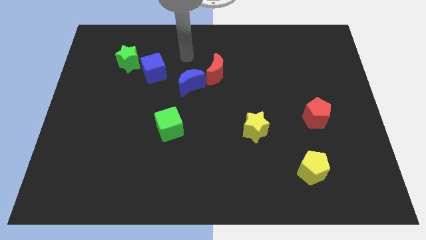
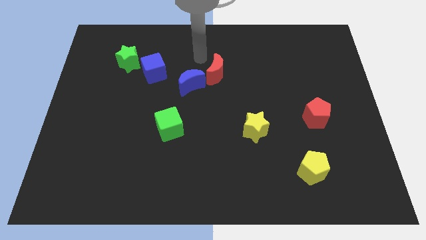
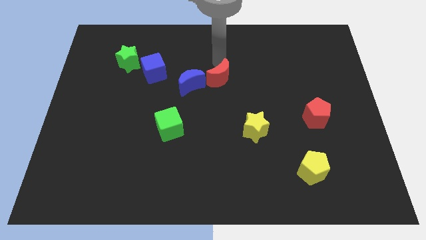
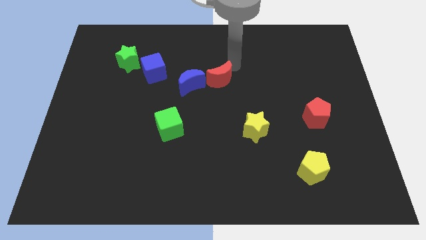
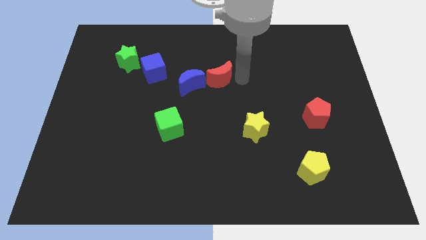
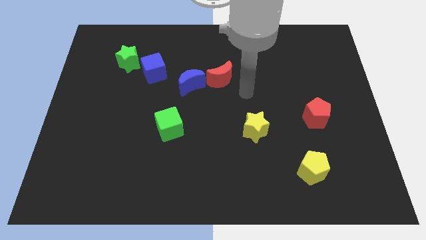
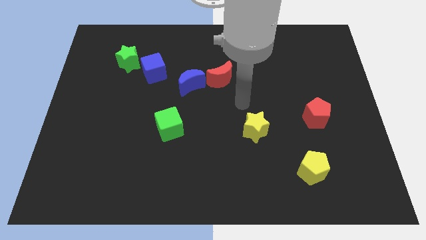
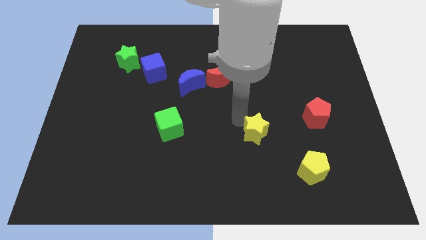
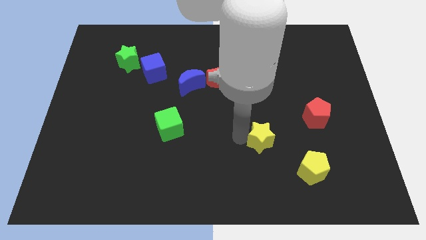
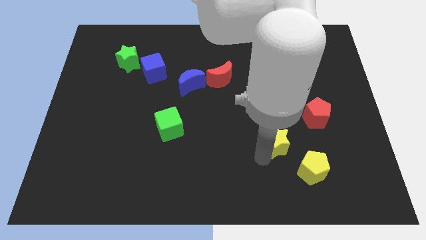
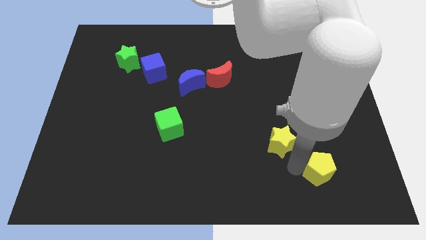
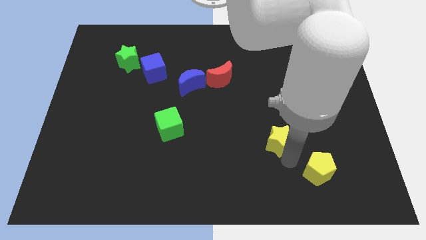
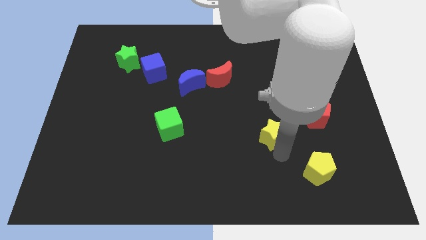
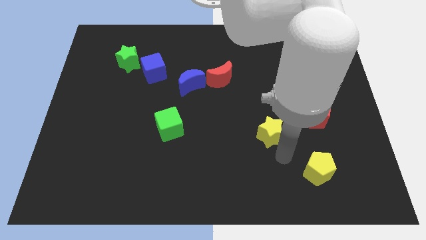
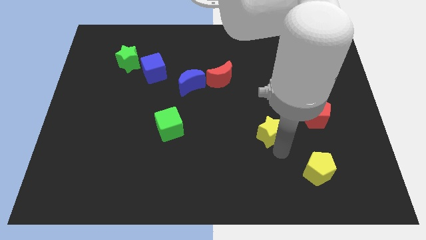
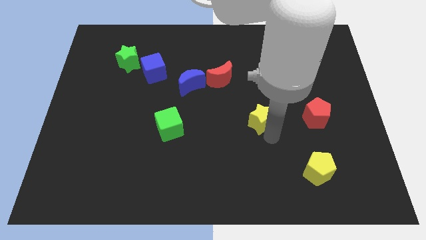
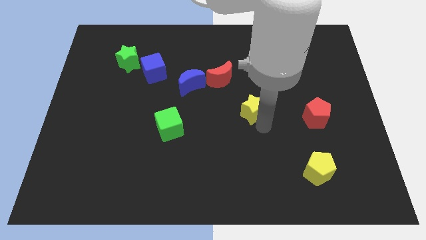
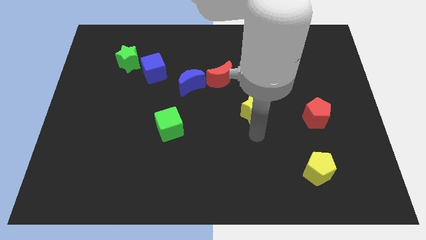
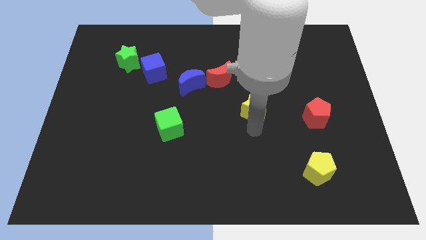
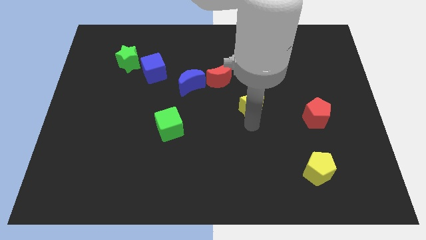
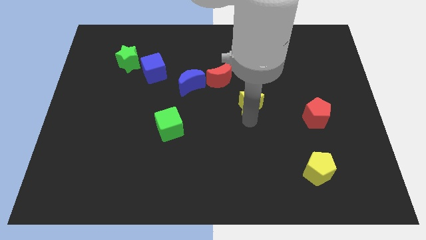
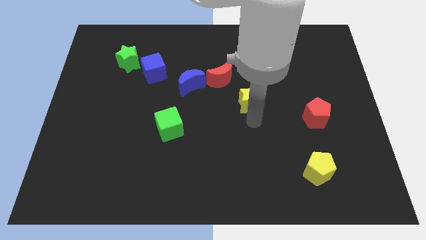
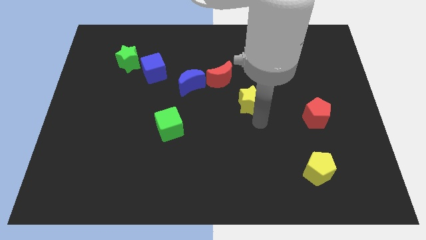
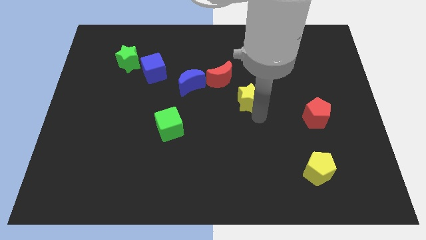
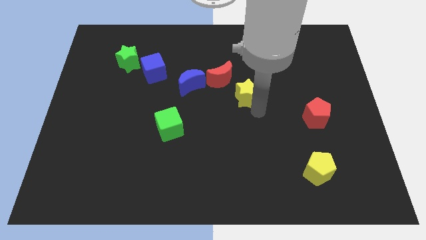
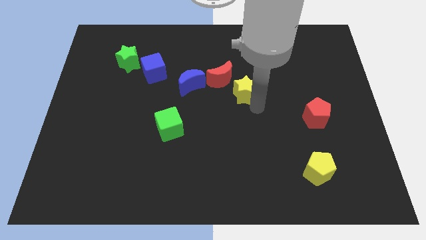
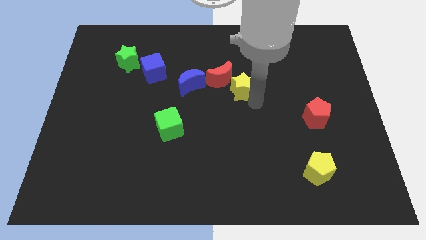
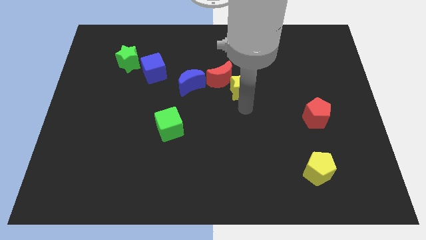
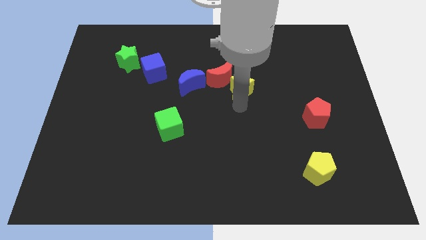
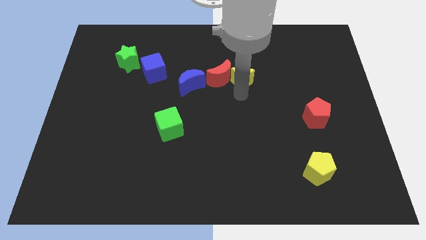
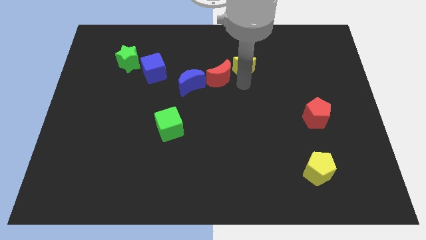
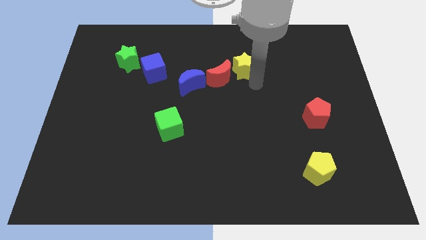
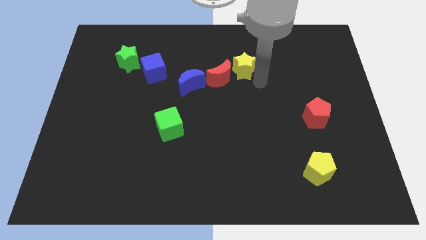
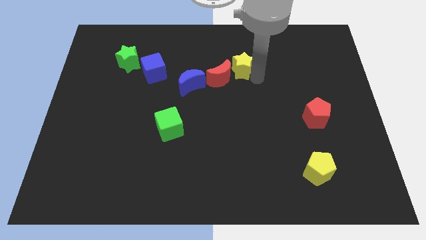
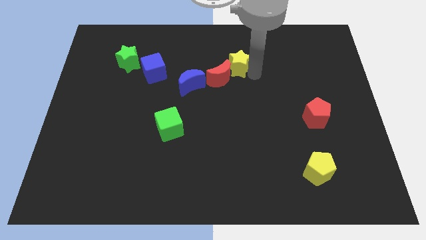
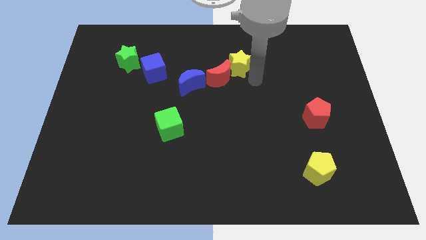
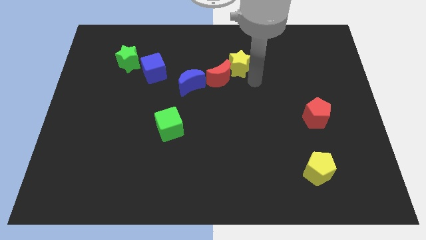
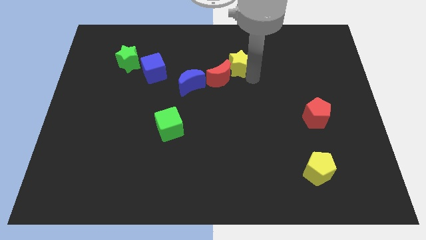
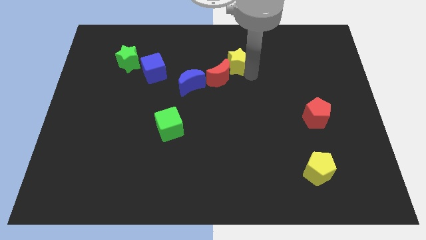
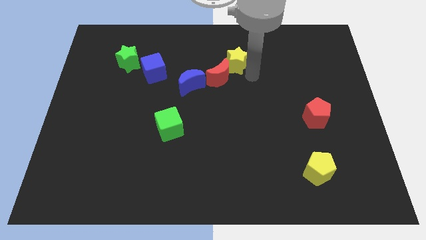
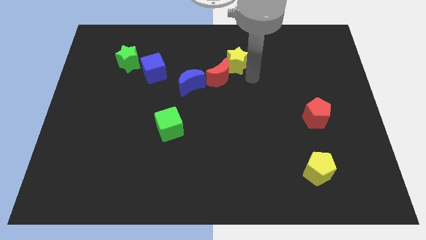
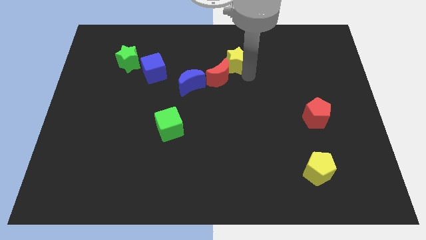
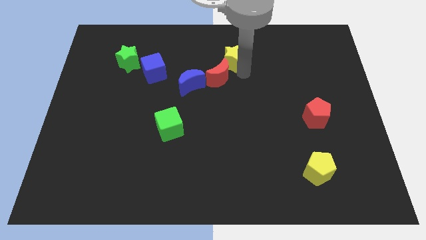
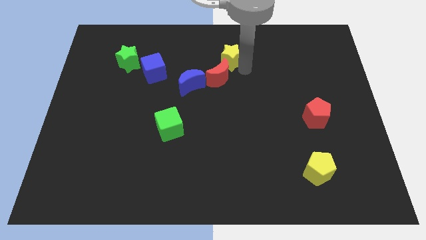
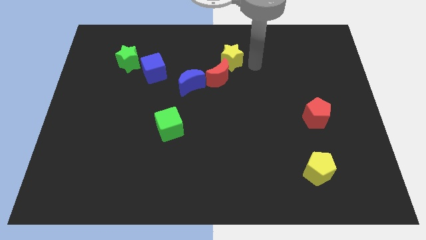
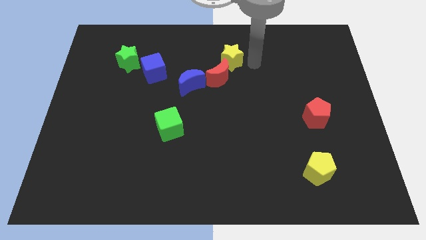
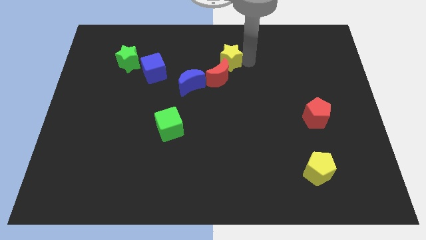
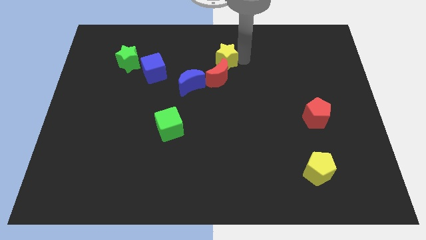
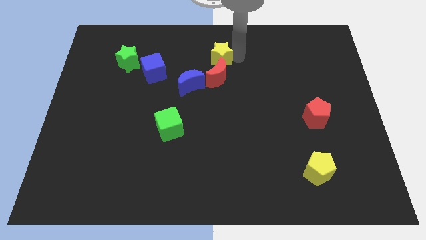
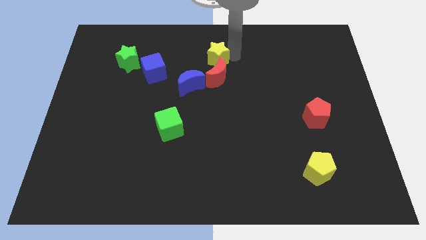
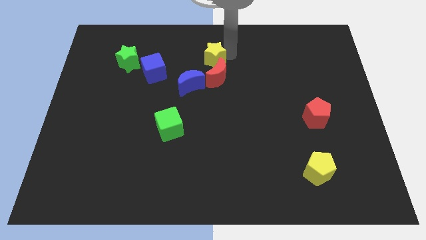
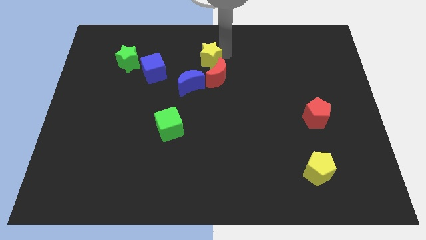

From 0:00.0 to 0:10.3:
slide the yellow star upwards and to the left diagonally

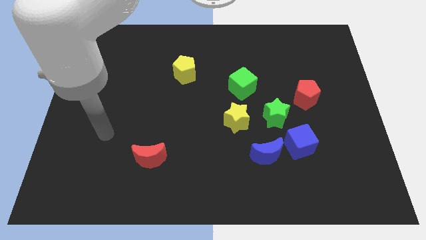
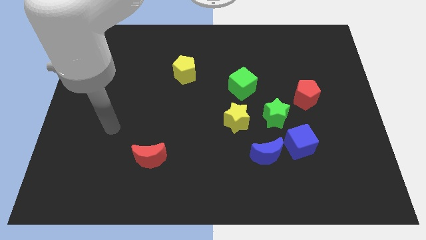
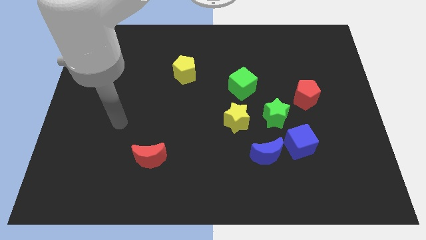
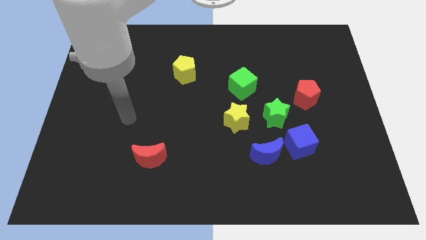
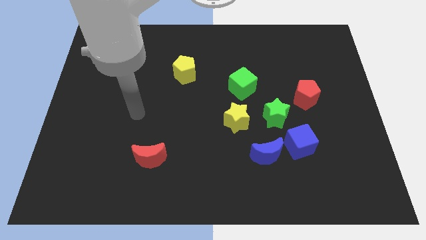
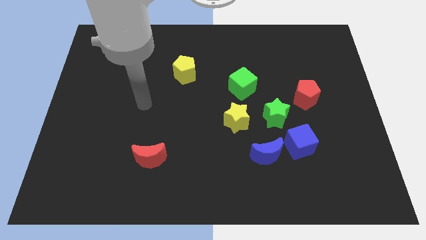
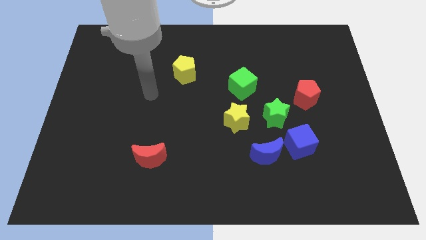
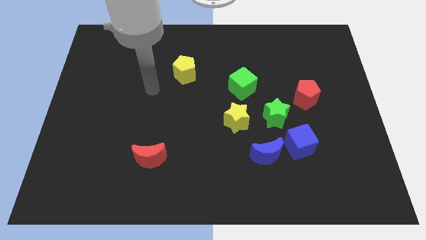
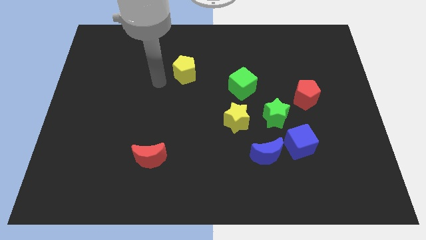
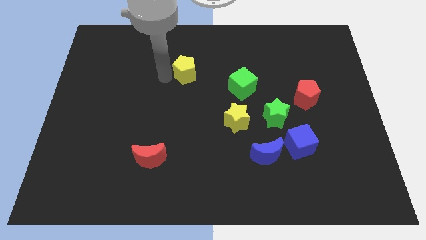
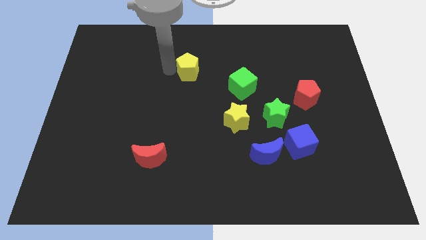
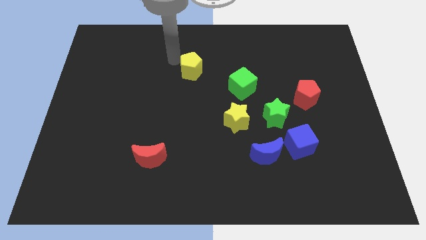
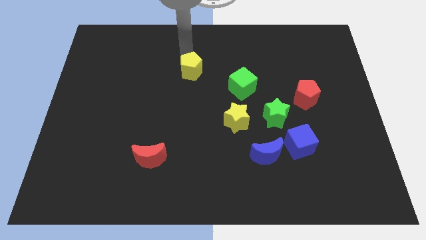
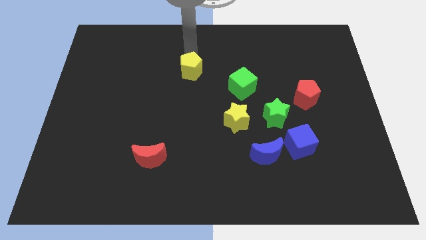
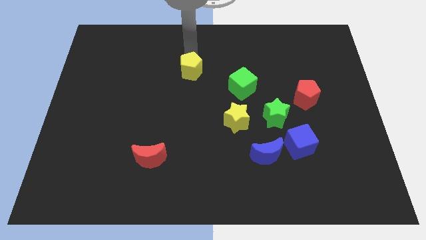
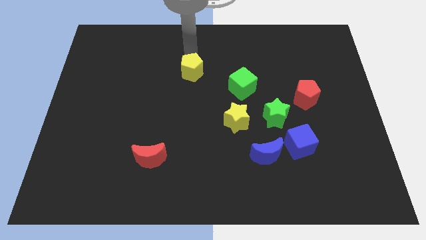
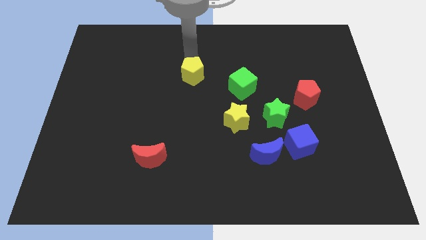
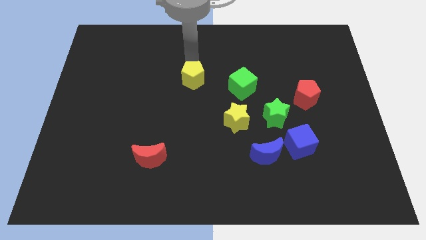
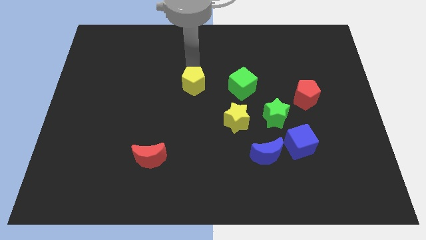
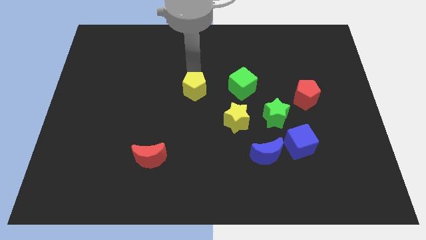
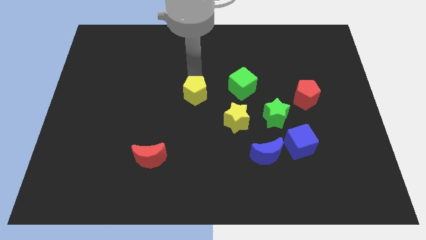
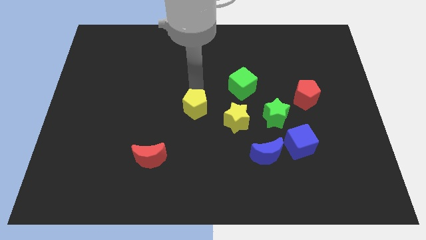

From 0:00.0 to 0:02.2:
slightly move the yellow pentagon downwards

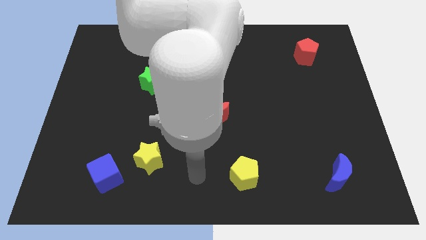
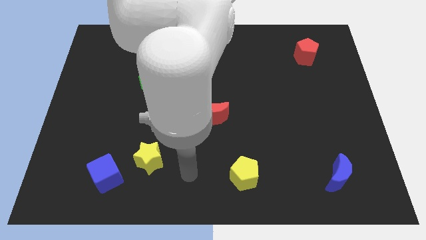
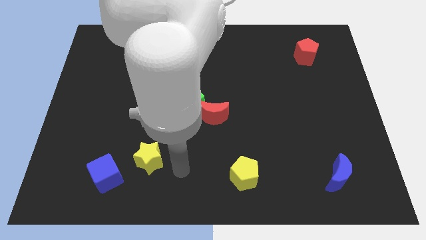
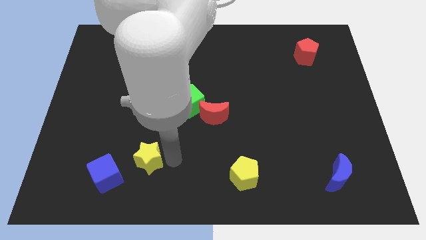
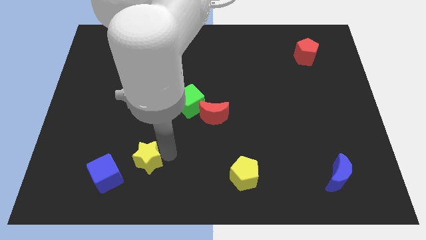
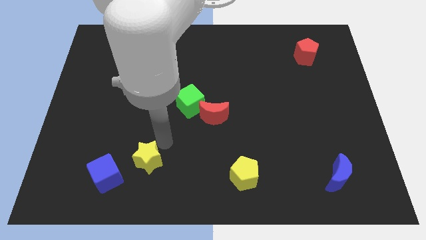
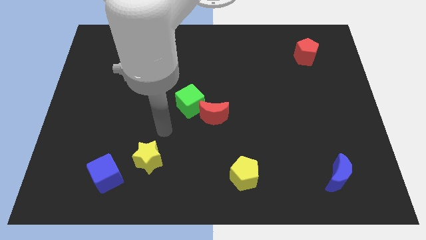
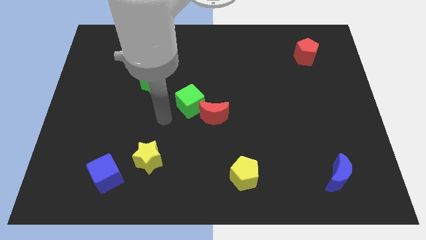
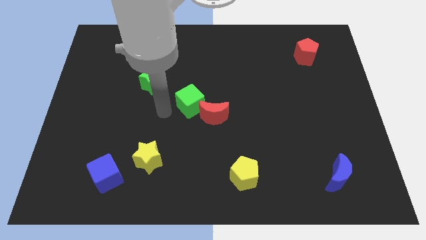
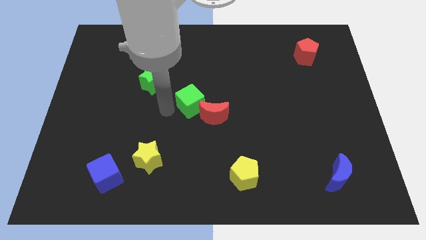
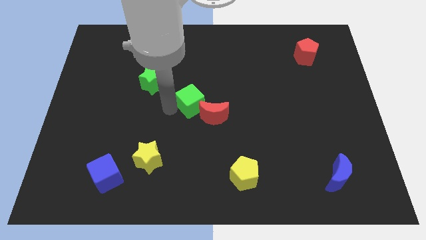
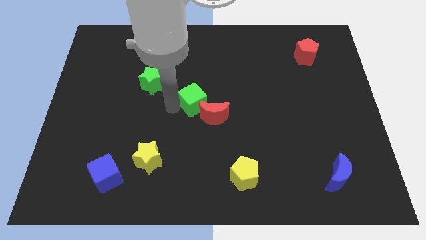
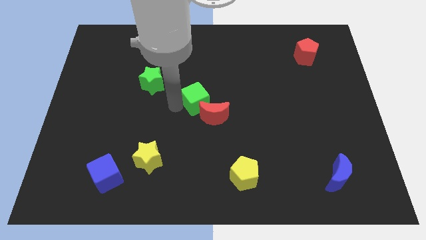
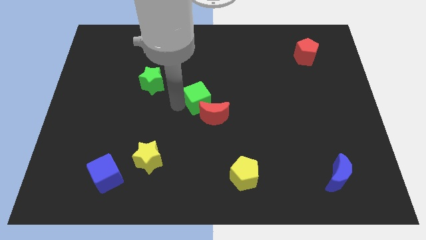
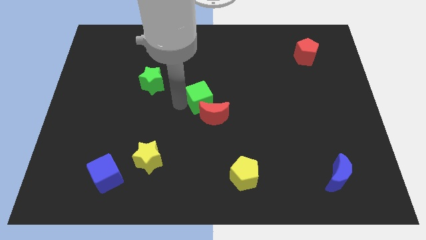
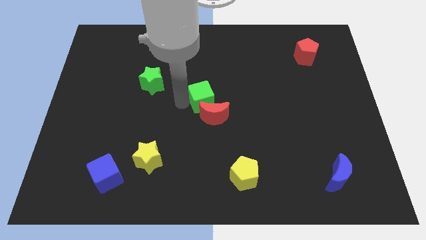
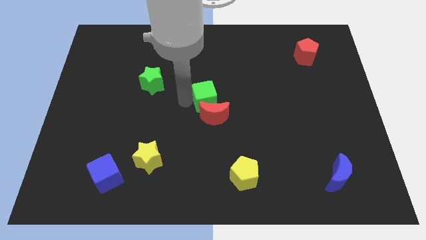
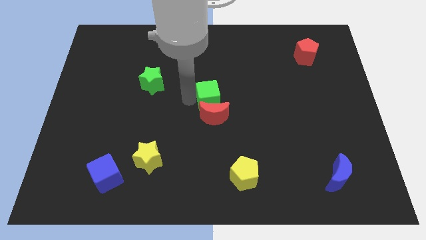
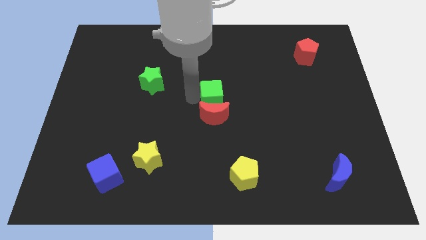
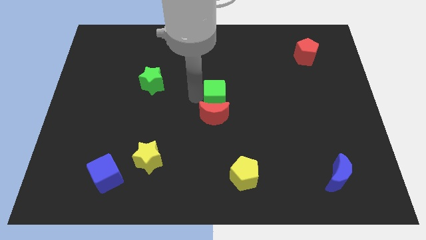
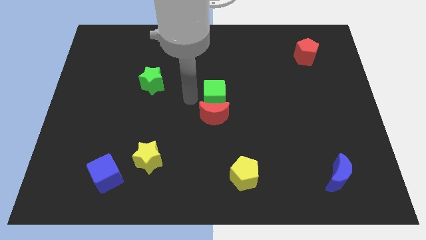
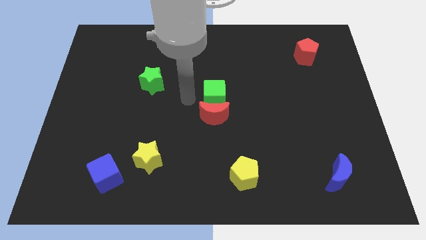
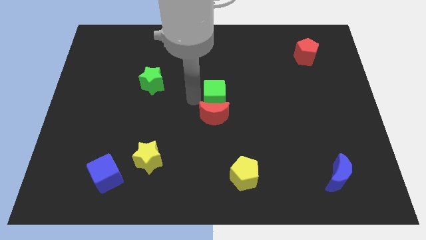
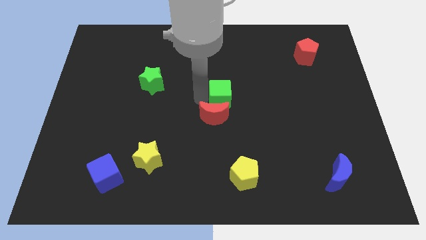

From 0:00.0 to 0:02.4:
slightly move the green cube to the right
